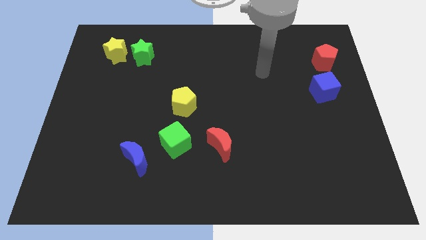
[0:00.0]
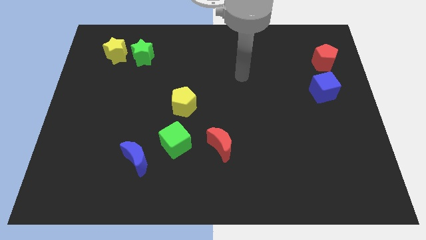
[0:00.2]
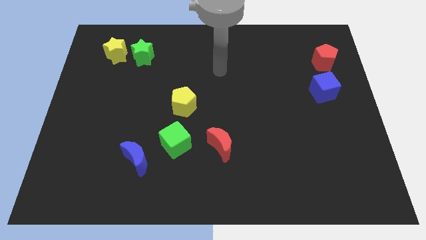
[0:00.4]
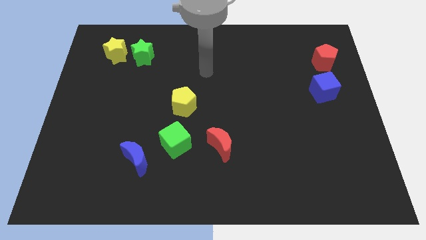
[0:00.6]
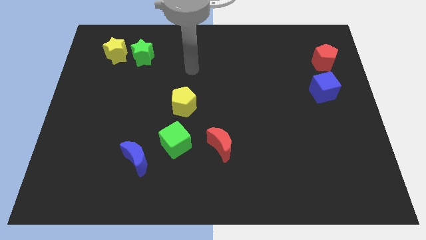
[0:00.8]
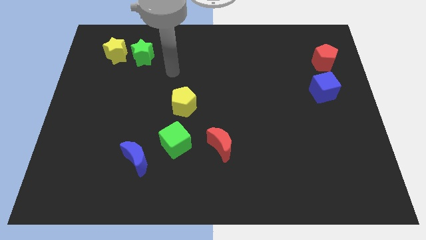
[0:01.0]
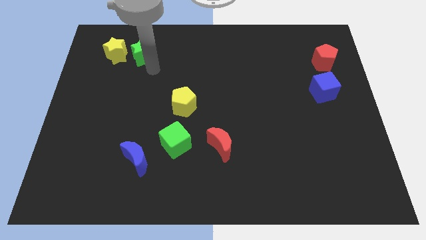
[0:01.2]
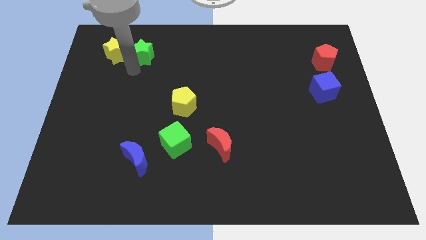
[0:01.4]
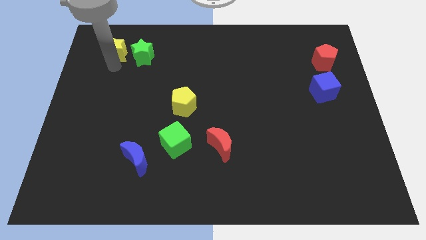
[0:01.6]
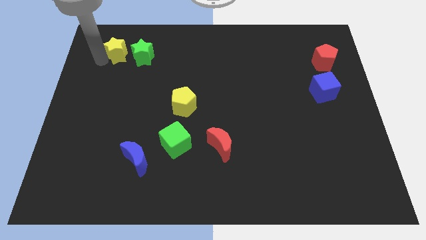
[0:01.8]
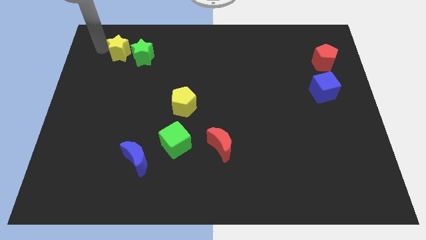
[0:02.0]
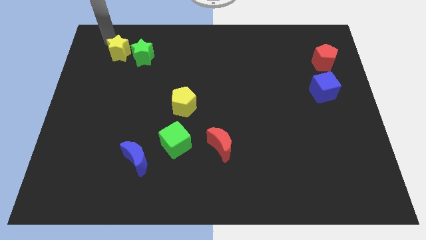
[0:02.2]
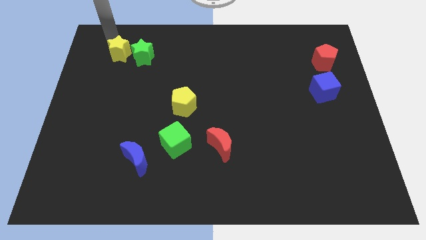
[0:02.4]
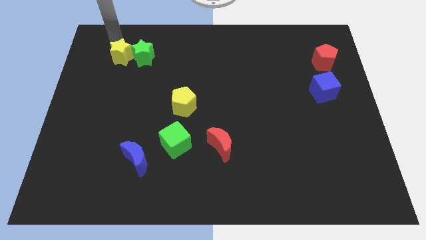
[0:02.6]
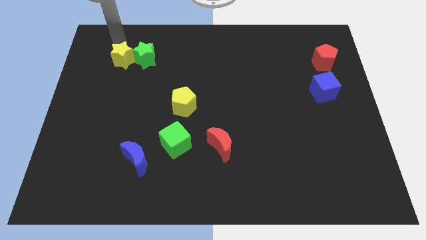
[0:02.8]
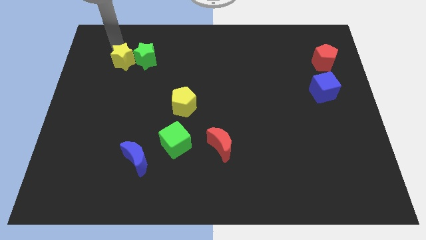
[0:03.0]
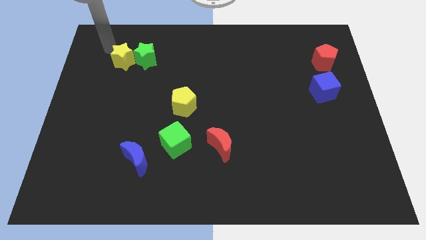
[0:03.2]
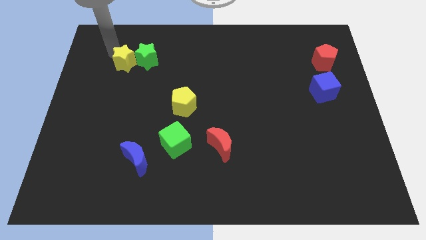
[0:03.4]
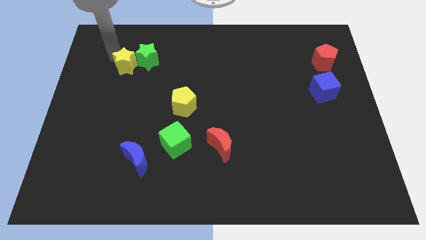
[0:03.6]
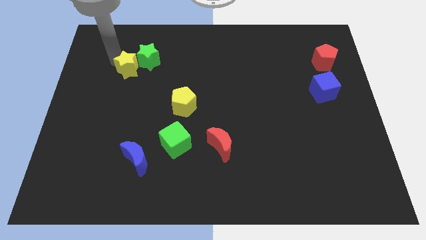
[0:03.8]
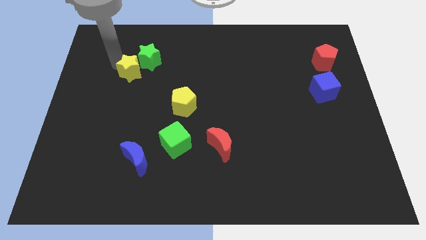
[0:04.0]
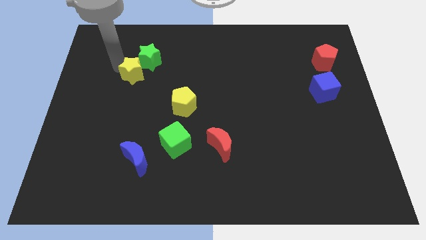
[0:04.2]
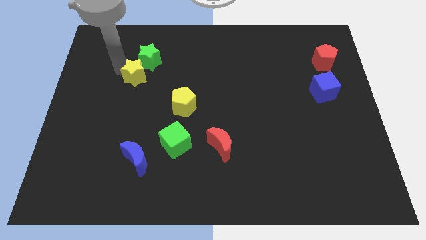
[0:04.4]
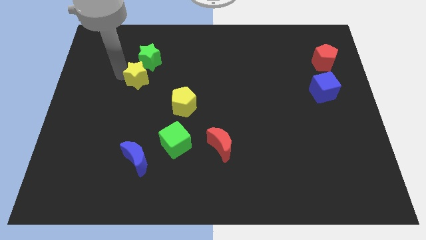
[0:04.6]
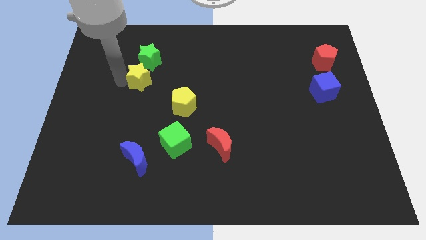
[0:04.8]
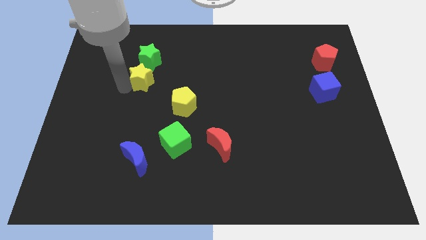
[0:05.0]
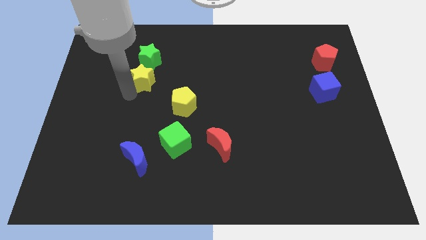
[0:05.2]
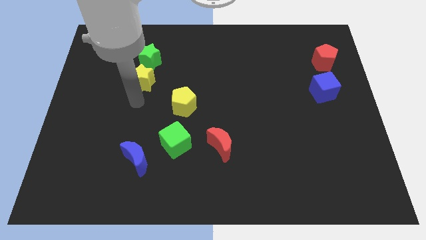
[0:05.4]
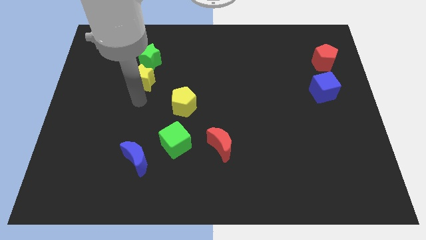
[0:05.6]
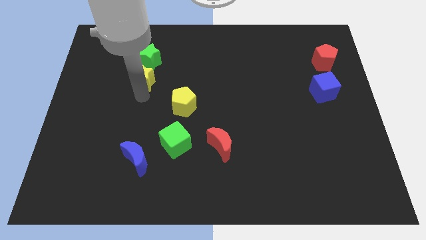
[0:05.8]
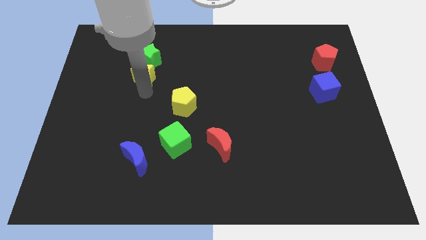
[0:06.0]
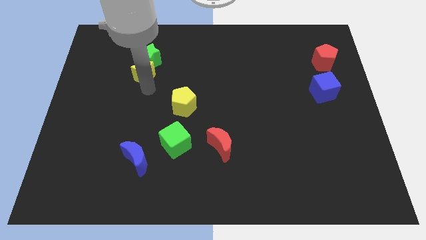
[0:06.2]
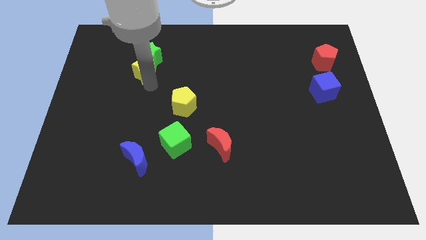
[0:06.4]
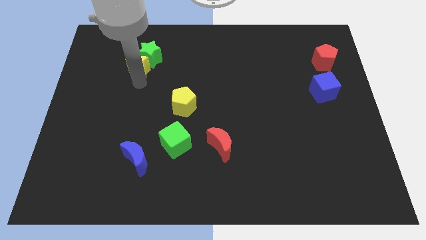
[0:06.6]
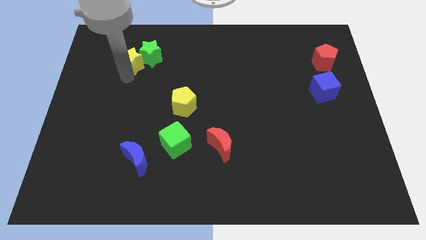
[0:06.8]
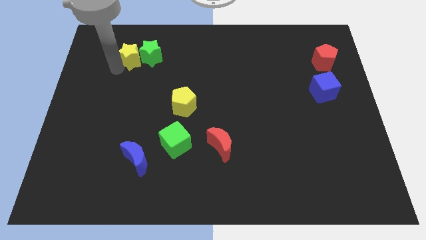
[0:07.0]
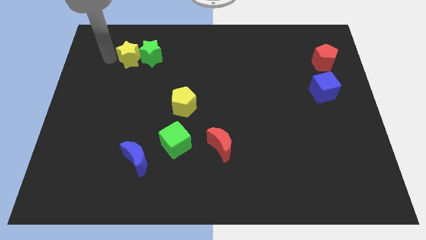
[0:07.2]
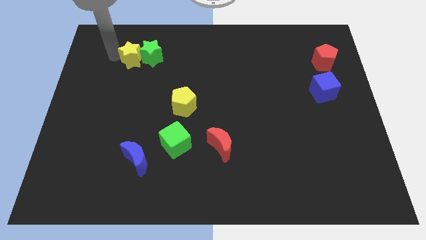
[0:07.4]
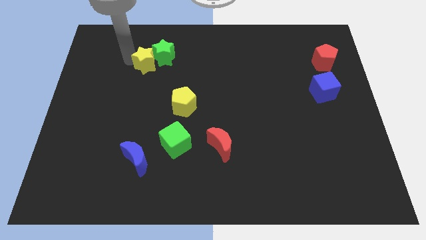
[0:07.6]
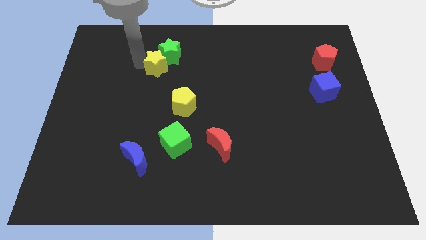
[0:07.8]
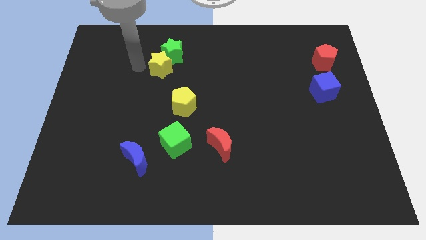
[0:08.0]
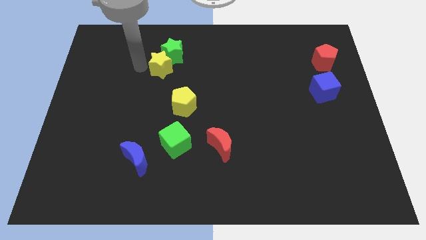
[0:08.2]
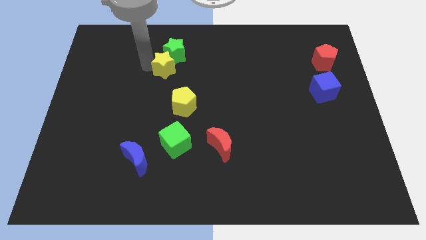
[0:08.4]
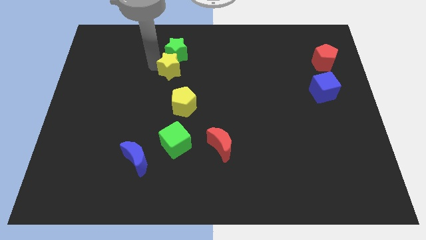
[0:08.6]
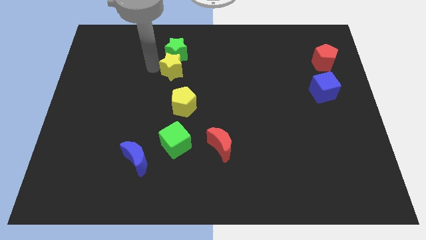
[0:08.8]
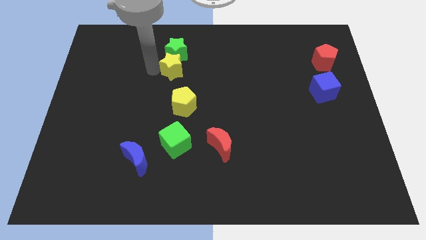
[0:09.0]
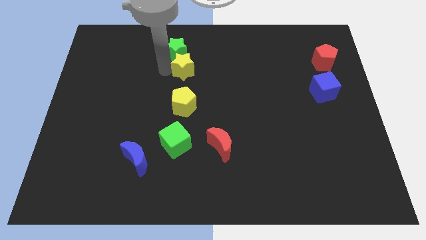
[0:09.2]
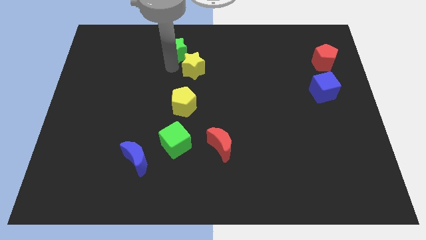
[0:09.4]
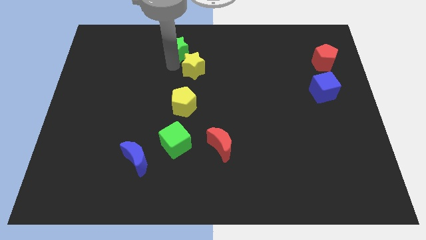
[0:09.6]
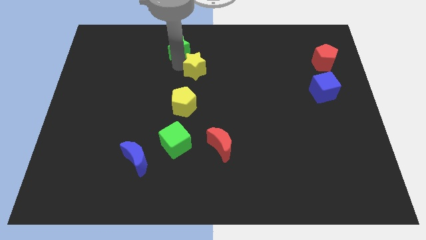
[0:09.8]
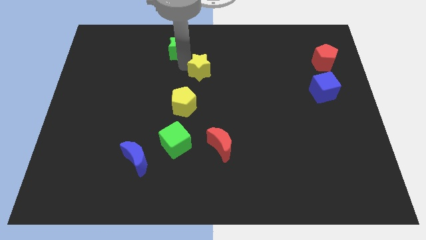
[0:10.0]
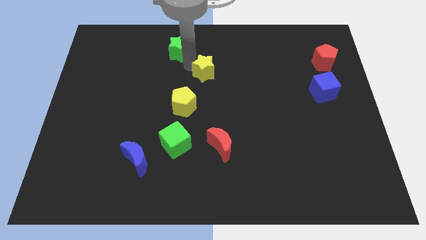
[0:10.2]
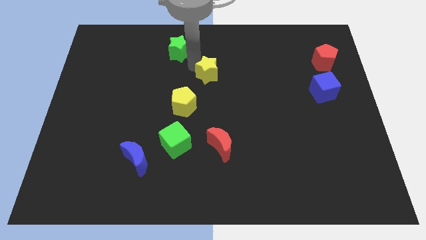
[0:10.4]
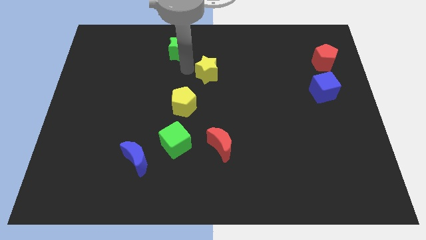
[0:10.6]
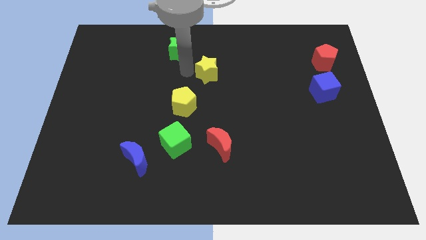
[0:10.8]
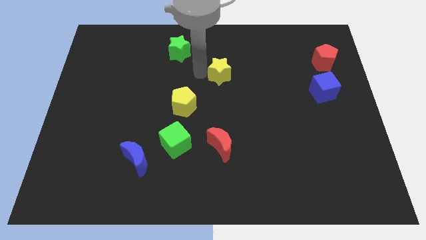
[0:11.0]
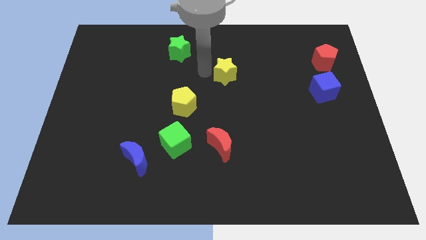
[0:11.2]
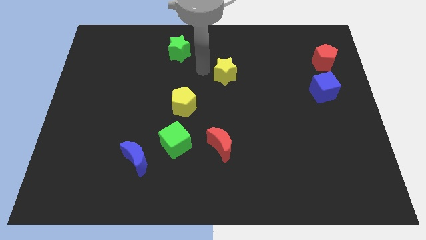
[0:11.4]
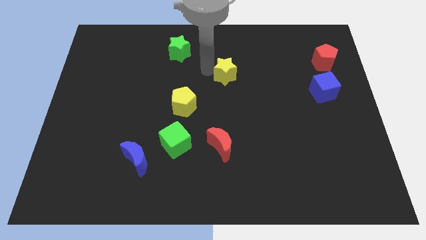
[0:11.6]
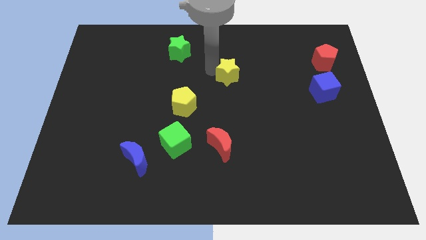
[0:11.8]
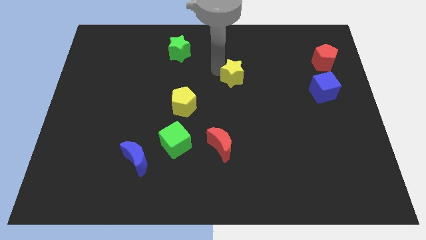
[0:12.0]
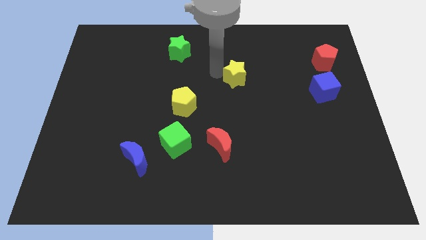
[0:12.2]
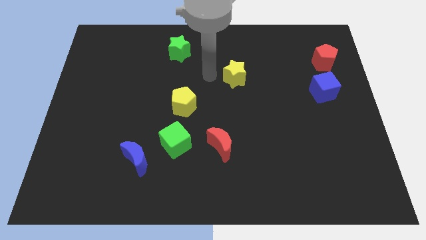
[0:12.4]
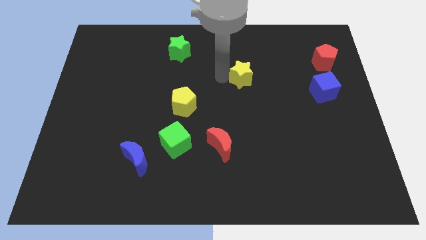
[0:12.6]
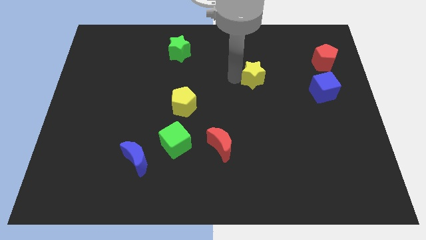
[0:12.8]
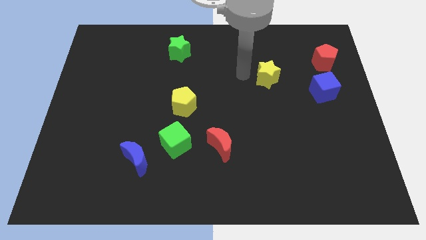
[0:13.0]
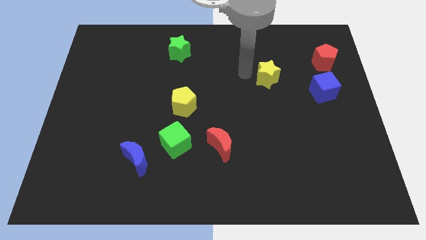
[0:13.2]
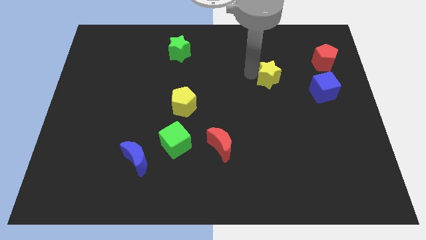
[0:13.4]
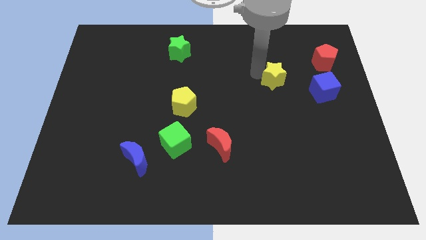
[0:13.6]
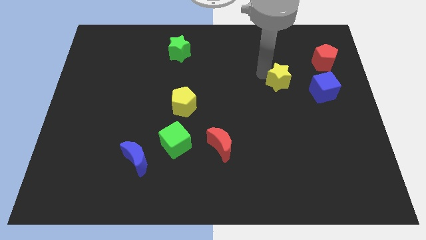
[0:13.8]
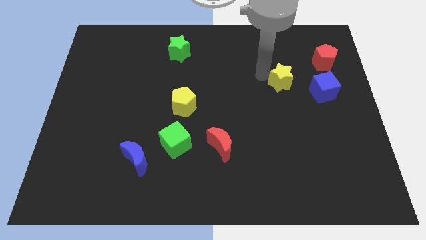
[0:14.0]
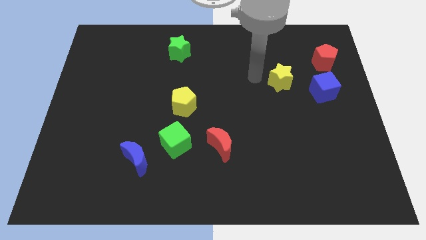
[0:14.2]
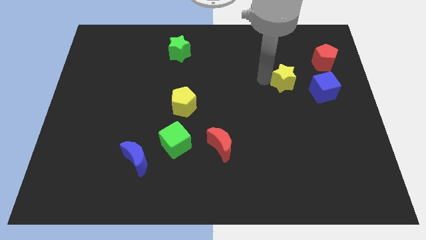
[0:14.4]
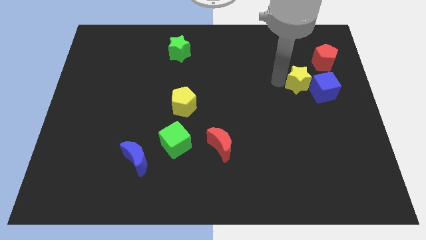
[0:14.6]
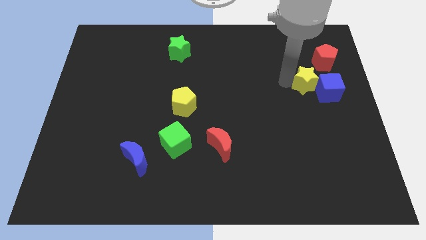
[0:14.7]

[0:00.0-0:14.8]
put the yellow star to the blue cube
